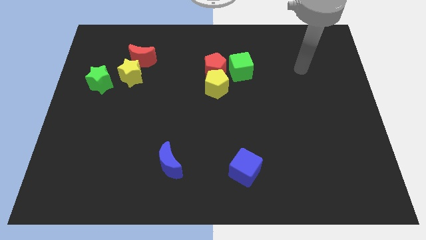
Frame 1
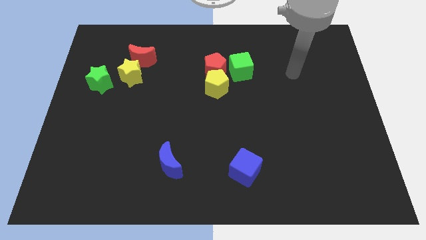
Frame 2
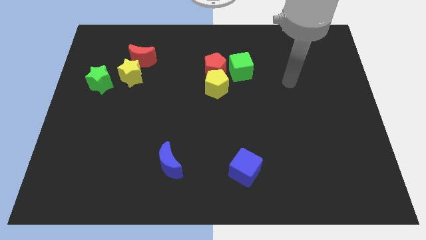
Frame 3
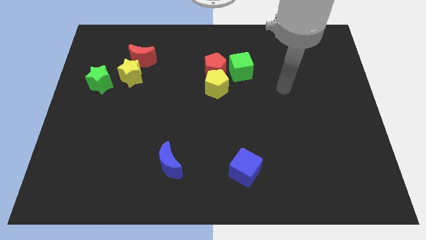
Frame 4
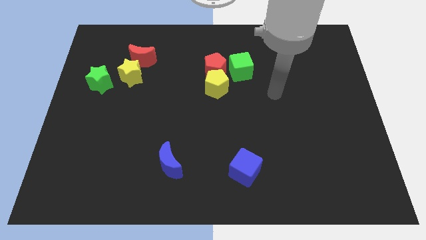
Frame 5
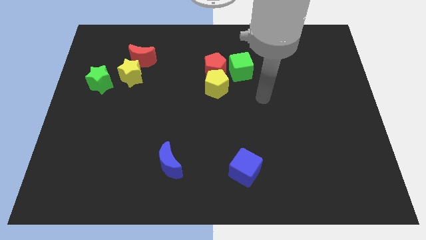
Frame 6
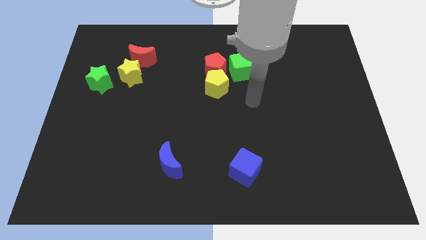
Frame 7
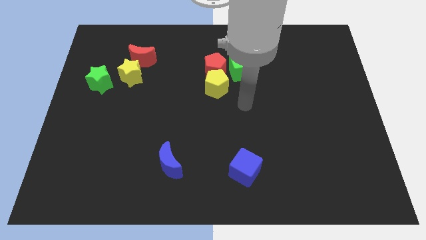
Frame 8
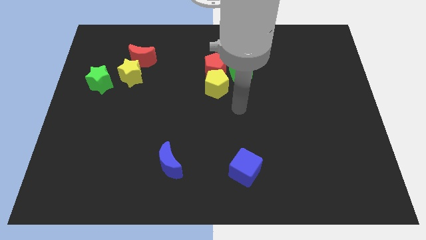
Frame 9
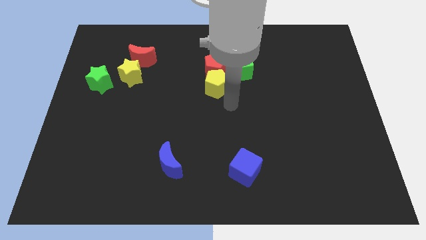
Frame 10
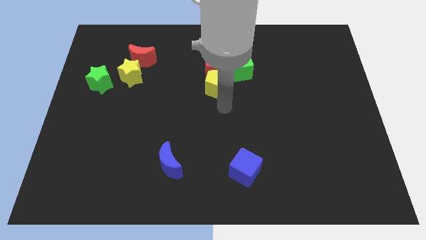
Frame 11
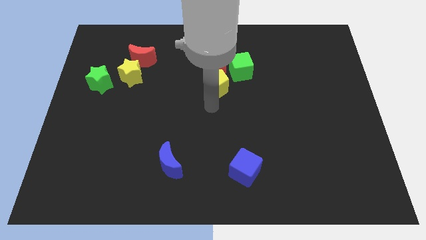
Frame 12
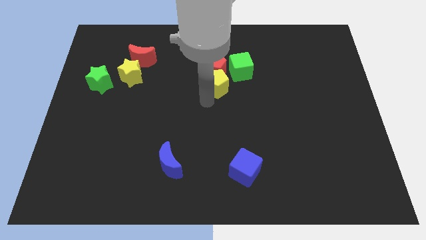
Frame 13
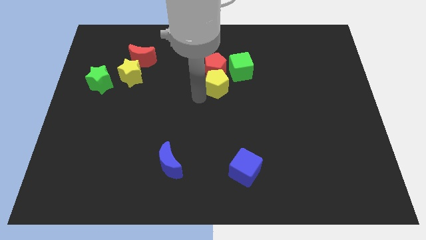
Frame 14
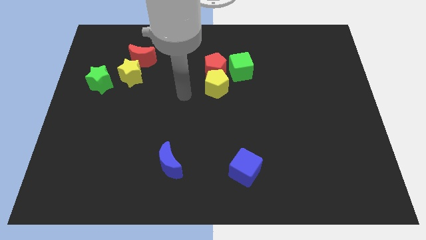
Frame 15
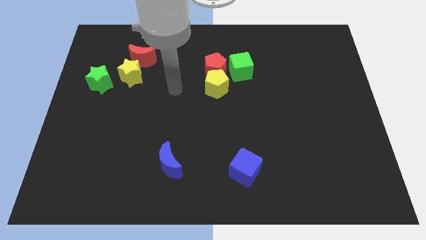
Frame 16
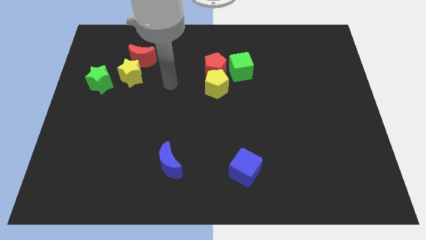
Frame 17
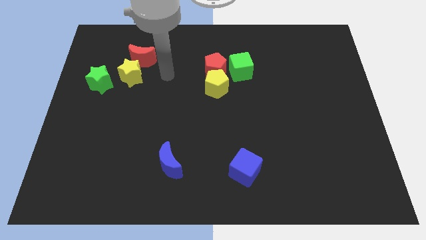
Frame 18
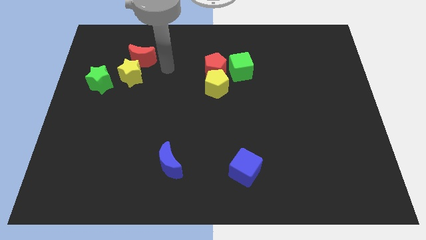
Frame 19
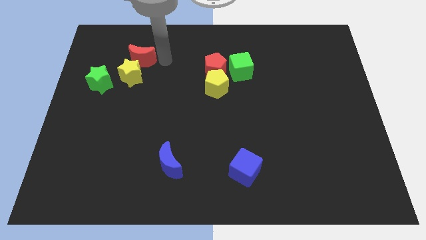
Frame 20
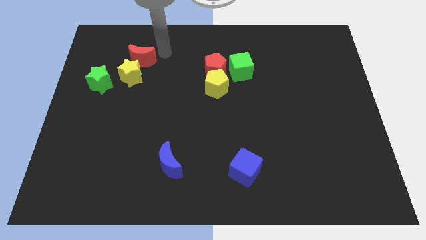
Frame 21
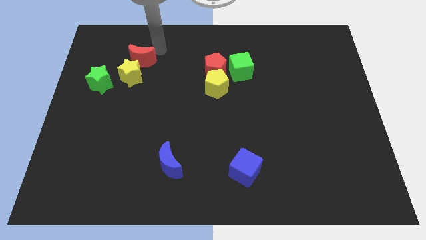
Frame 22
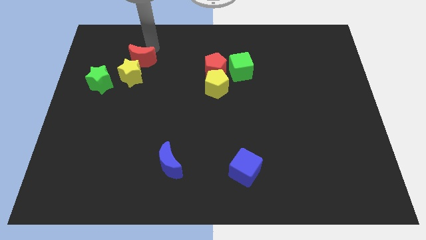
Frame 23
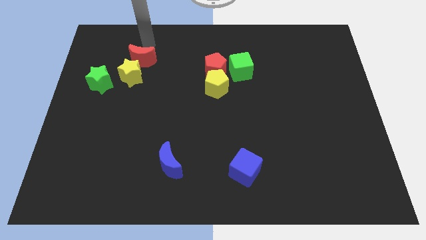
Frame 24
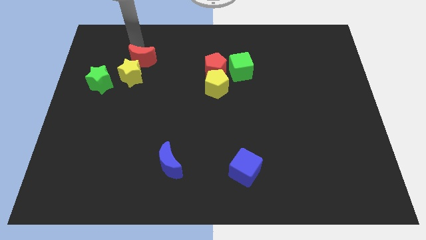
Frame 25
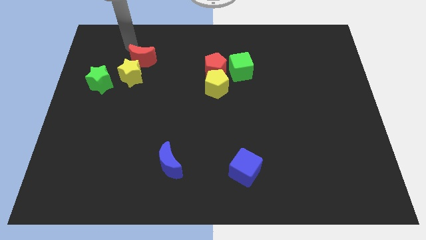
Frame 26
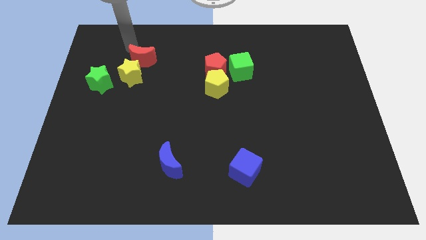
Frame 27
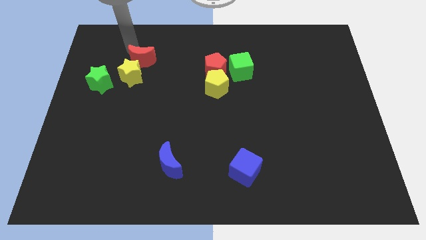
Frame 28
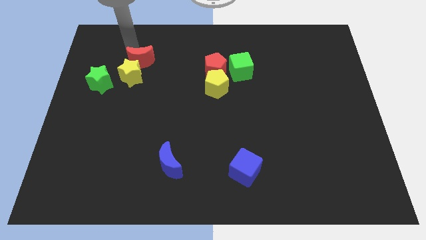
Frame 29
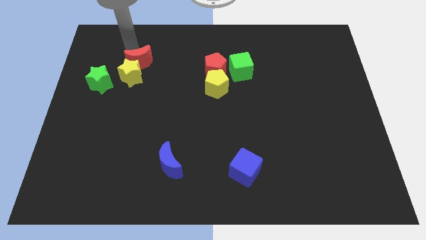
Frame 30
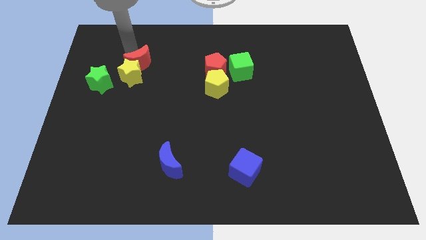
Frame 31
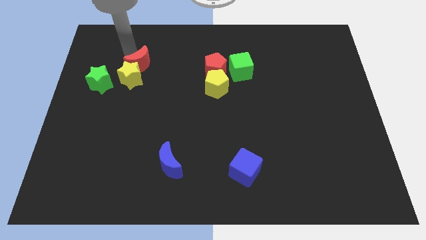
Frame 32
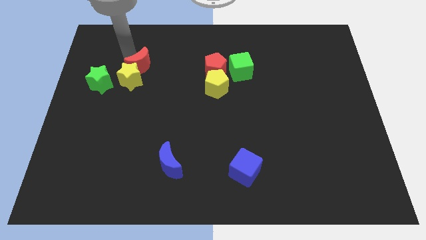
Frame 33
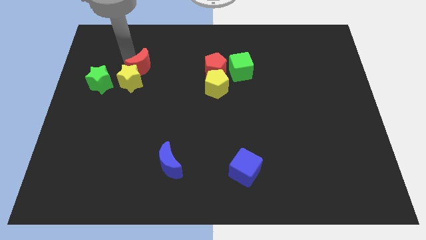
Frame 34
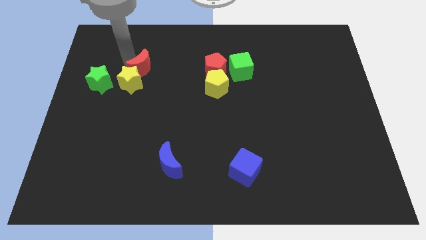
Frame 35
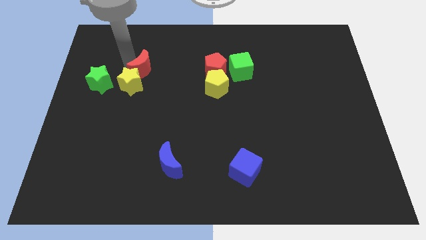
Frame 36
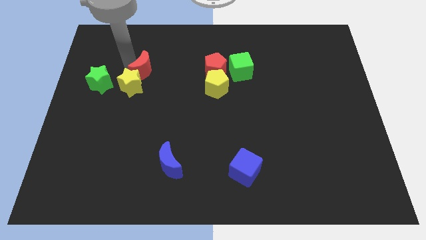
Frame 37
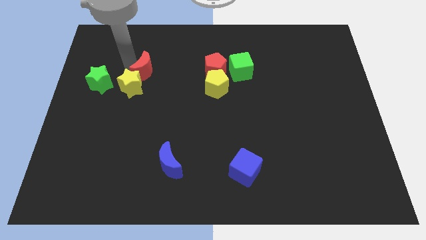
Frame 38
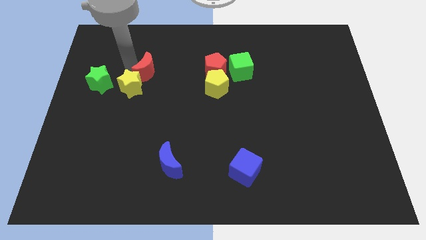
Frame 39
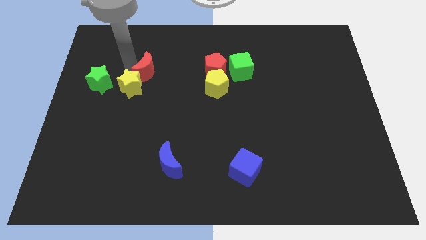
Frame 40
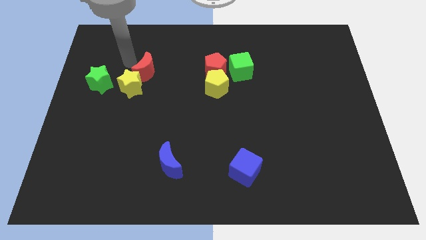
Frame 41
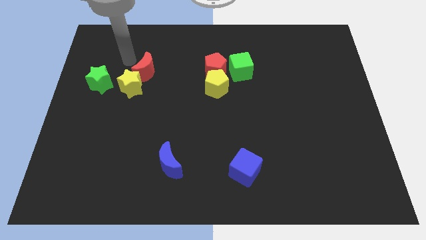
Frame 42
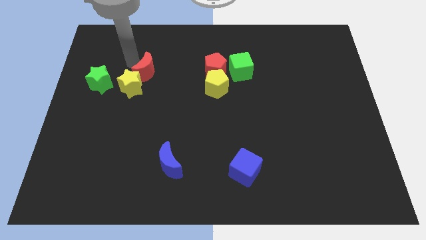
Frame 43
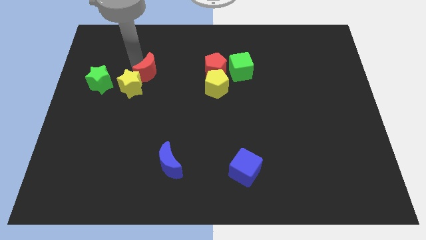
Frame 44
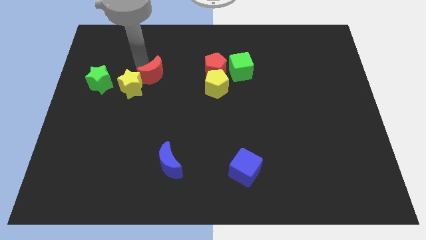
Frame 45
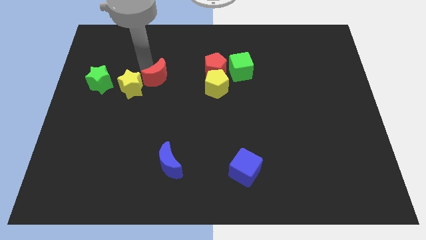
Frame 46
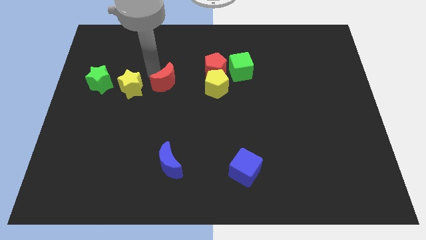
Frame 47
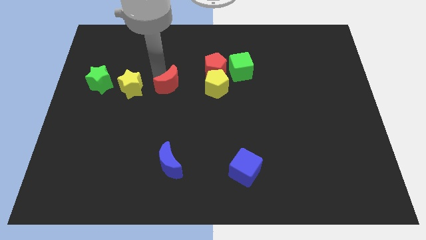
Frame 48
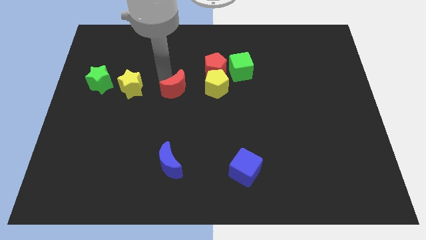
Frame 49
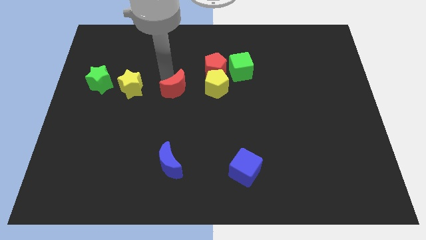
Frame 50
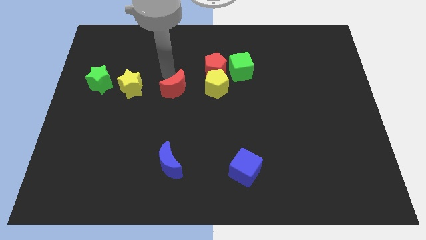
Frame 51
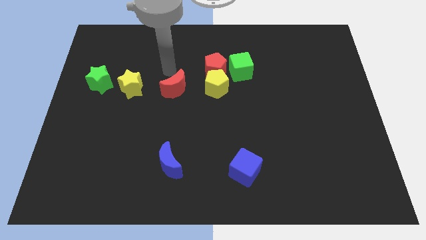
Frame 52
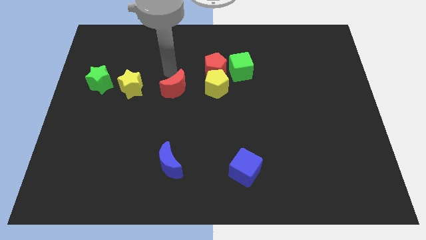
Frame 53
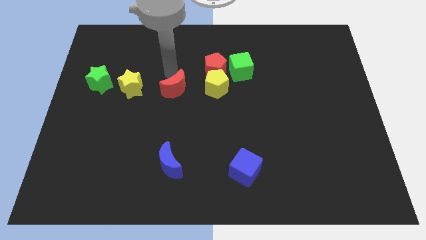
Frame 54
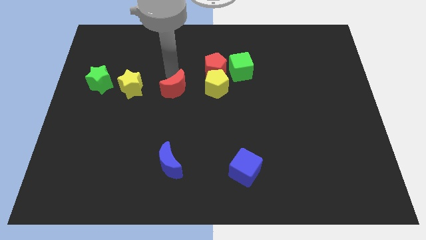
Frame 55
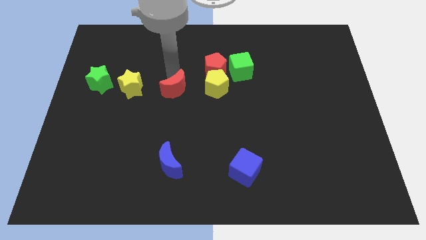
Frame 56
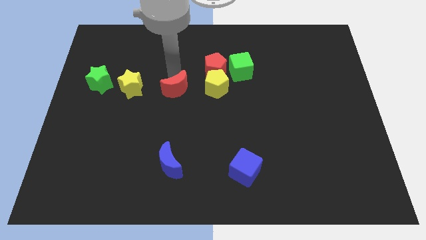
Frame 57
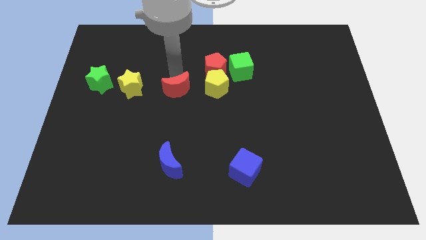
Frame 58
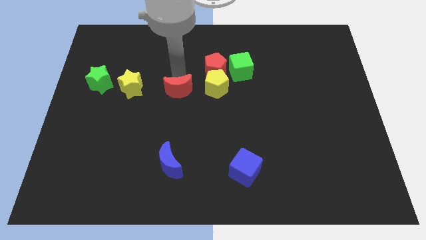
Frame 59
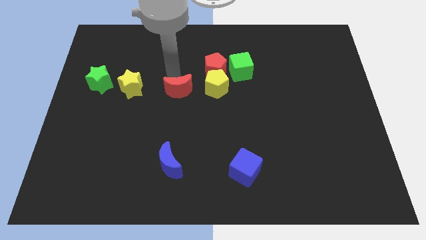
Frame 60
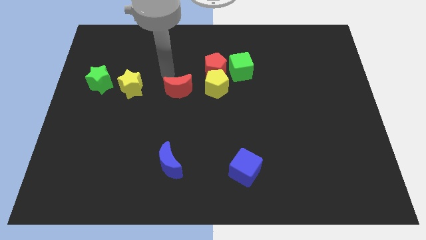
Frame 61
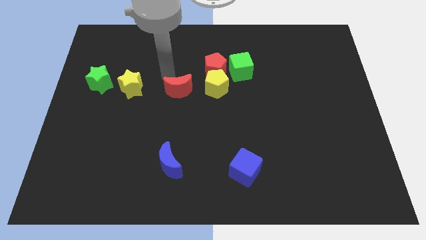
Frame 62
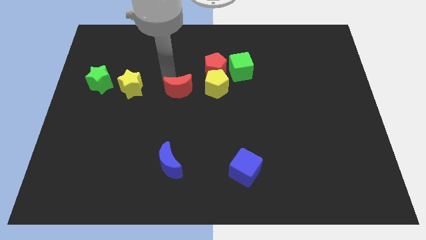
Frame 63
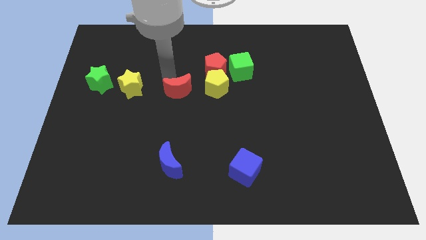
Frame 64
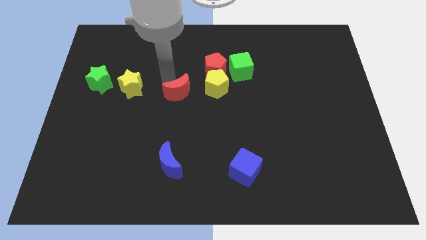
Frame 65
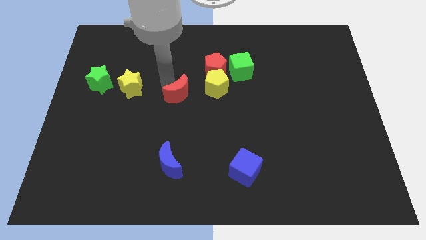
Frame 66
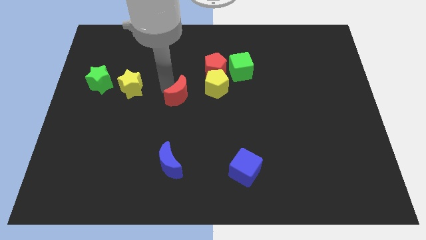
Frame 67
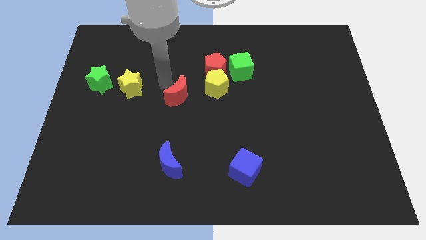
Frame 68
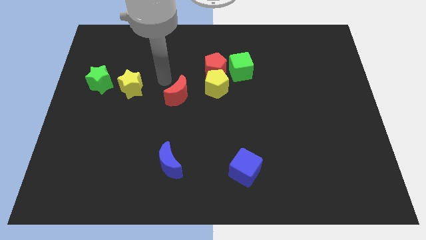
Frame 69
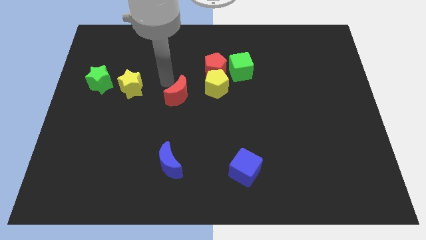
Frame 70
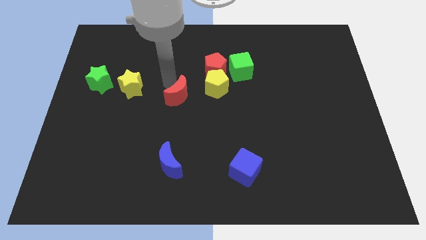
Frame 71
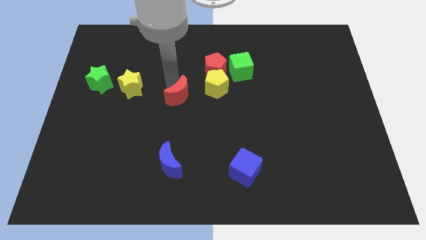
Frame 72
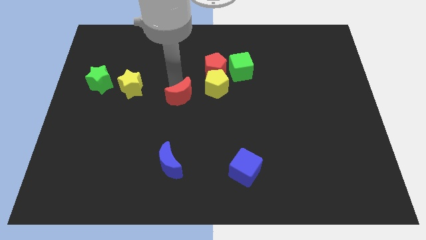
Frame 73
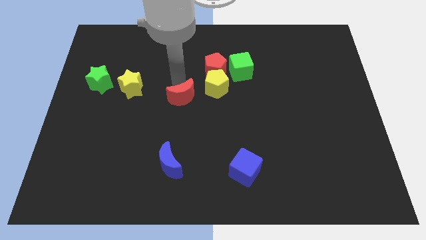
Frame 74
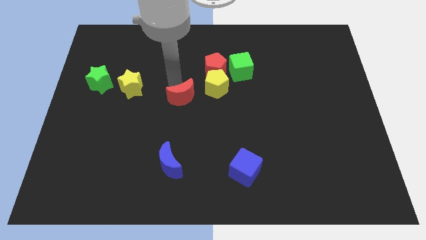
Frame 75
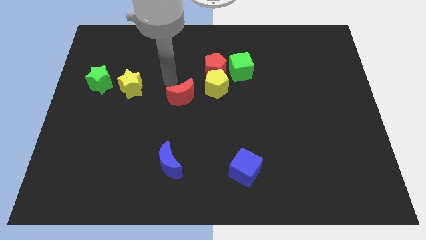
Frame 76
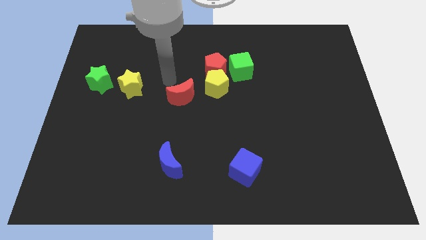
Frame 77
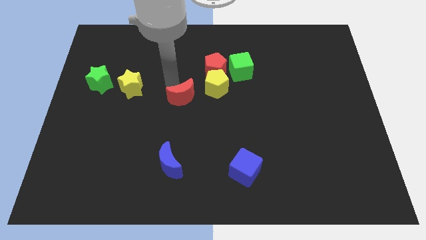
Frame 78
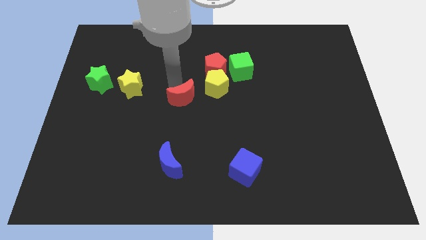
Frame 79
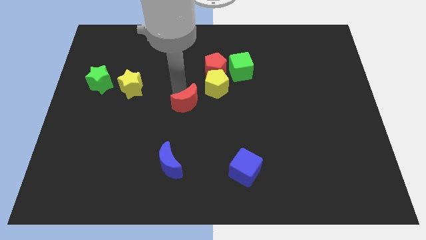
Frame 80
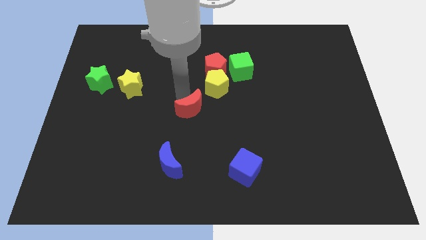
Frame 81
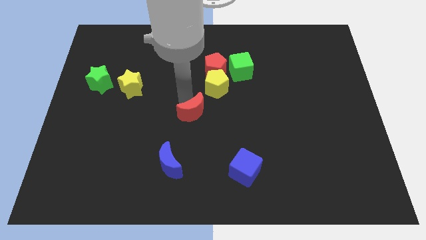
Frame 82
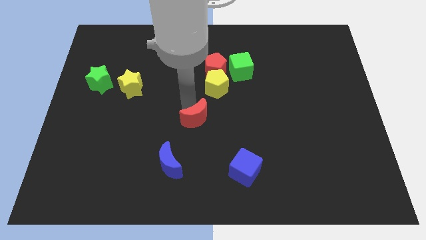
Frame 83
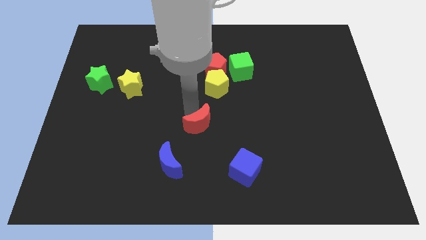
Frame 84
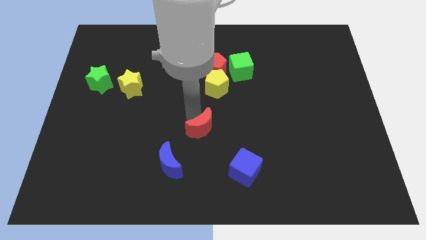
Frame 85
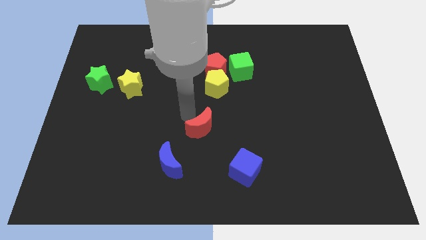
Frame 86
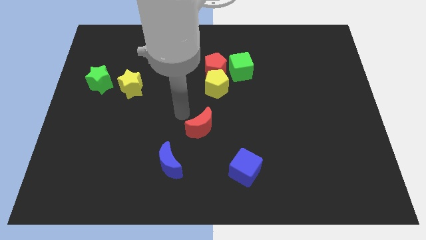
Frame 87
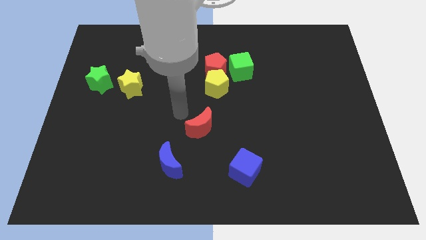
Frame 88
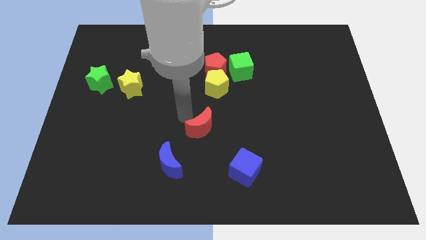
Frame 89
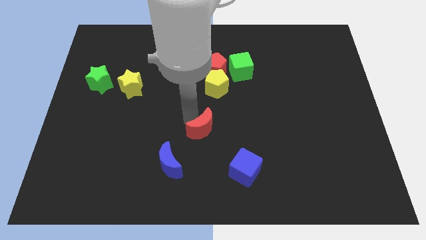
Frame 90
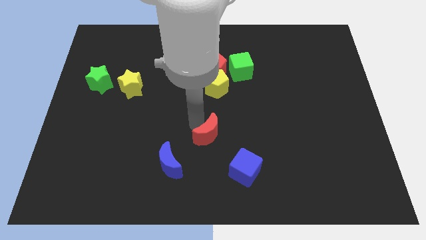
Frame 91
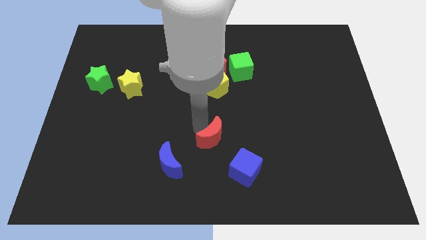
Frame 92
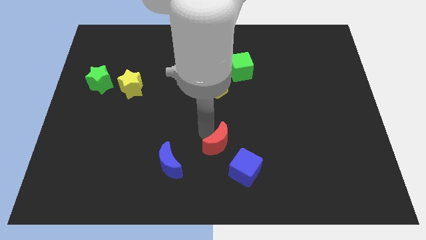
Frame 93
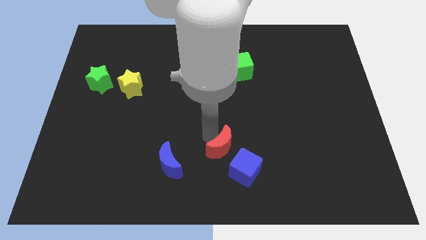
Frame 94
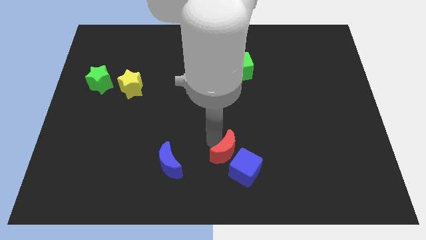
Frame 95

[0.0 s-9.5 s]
push the red moon towards the blue cube
